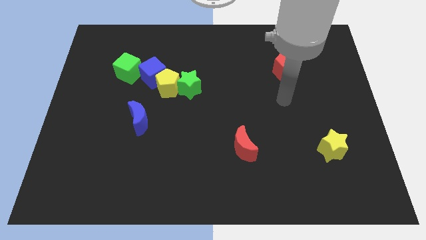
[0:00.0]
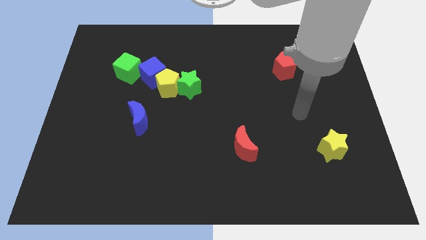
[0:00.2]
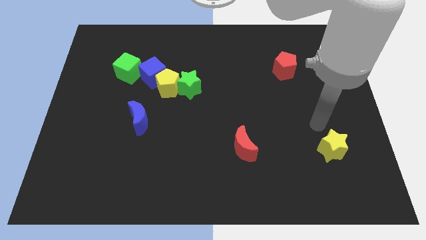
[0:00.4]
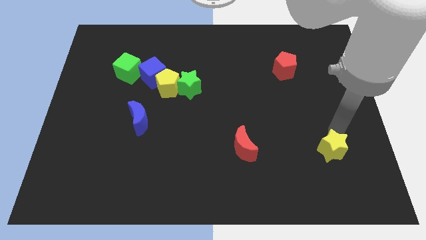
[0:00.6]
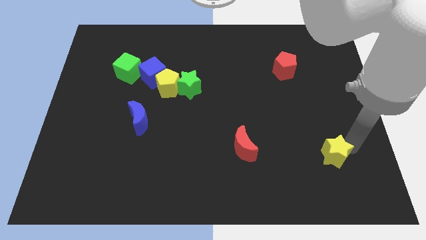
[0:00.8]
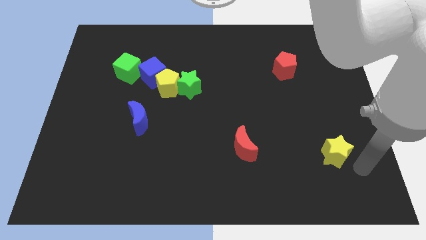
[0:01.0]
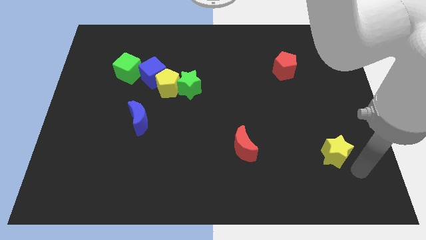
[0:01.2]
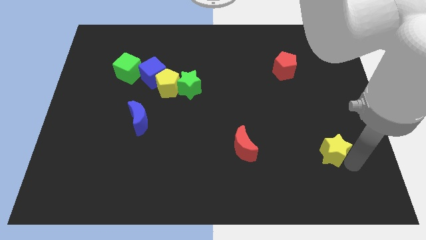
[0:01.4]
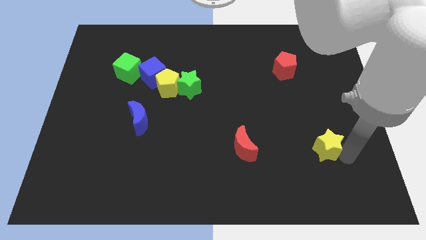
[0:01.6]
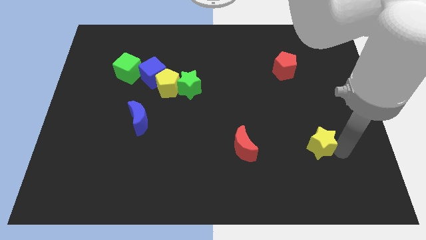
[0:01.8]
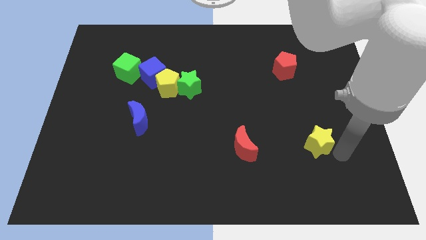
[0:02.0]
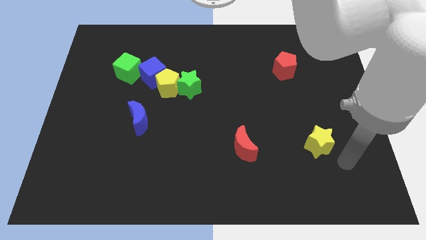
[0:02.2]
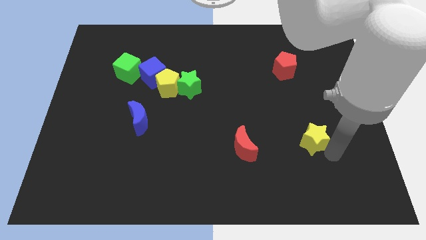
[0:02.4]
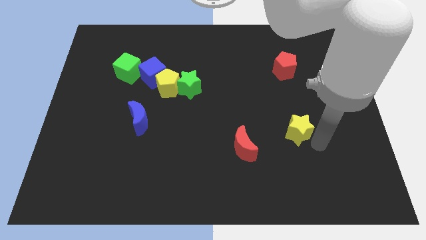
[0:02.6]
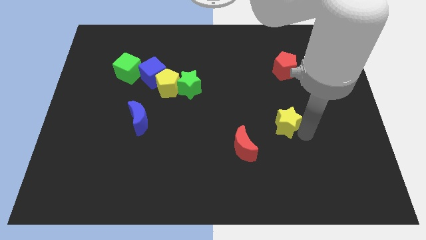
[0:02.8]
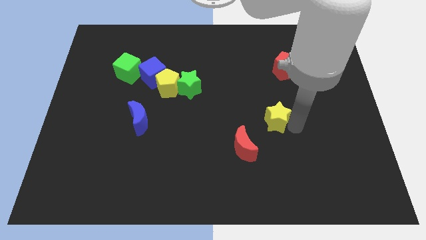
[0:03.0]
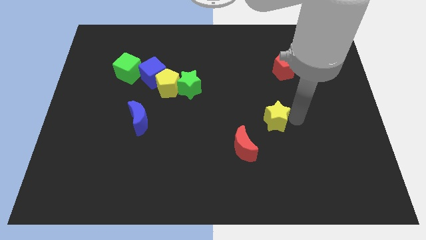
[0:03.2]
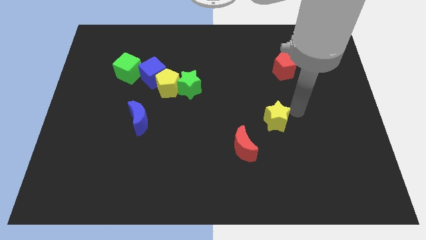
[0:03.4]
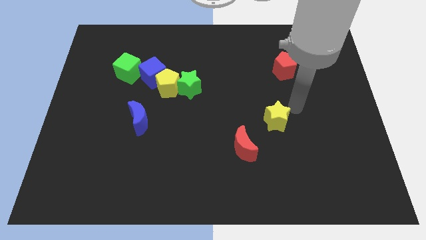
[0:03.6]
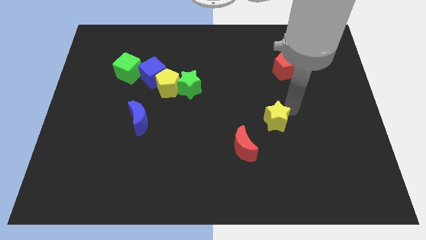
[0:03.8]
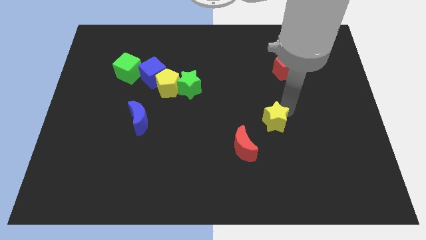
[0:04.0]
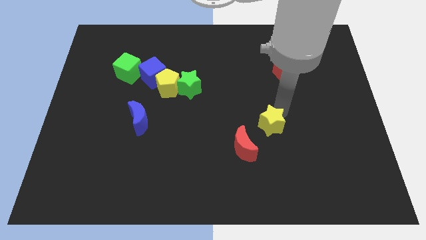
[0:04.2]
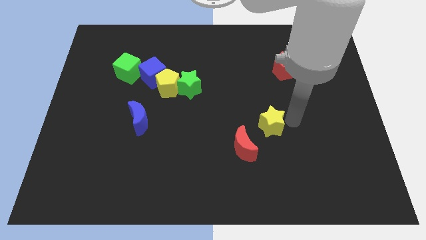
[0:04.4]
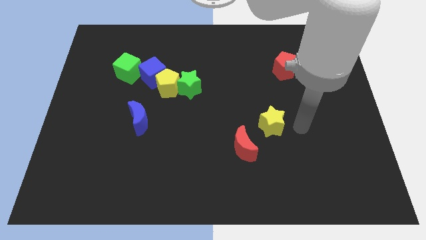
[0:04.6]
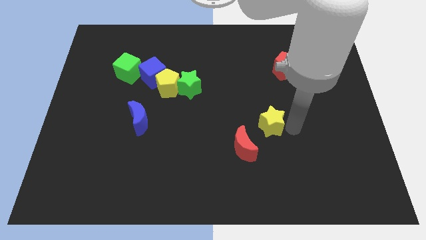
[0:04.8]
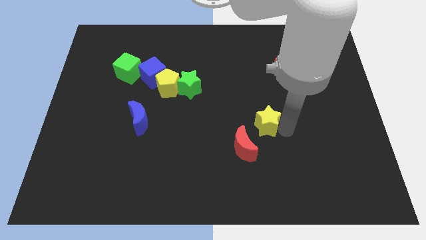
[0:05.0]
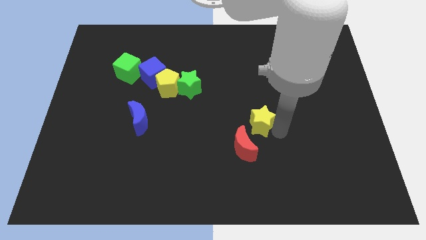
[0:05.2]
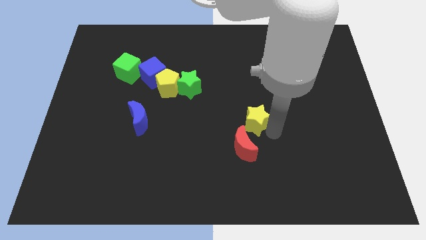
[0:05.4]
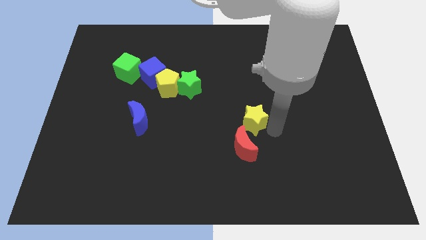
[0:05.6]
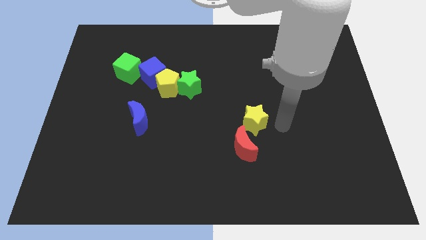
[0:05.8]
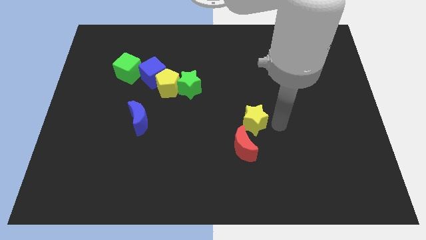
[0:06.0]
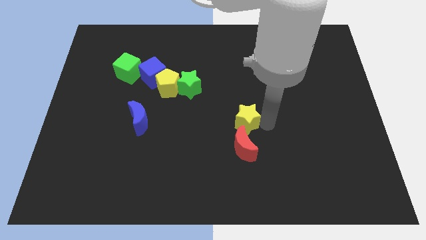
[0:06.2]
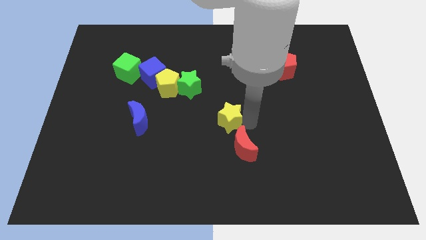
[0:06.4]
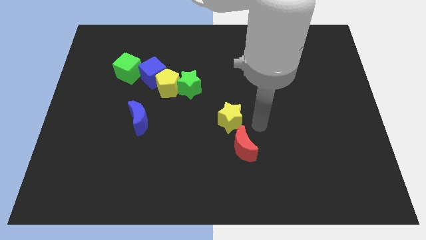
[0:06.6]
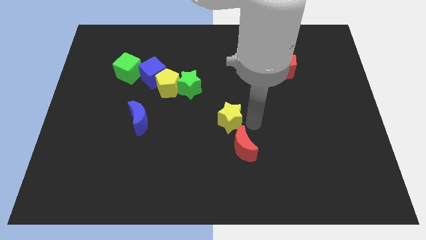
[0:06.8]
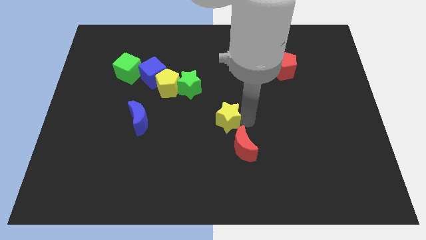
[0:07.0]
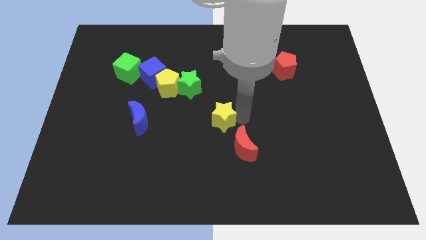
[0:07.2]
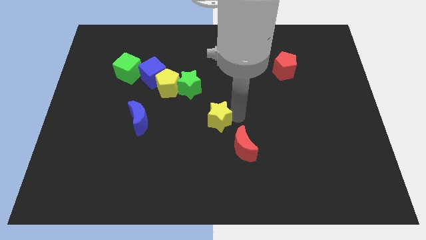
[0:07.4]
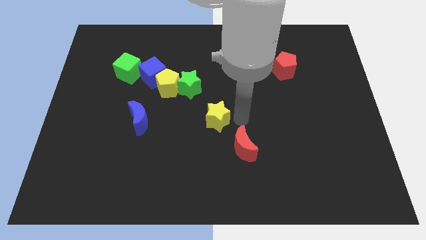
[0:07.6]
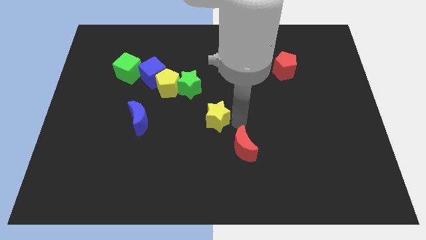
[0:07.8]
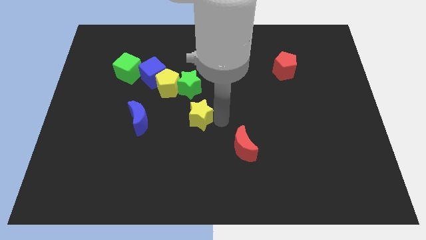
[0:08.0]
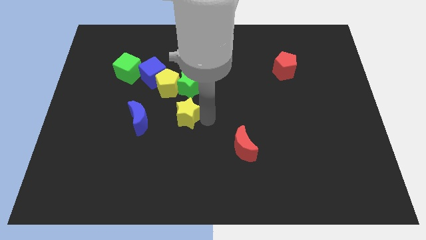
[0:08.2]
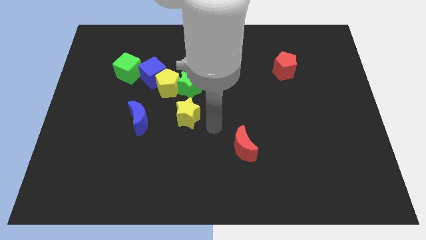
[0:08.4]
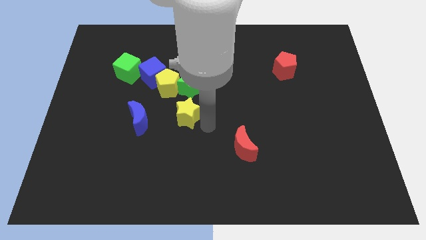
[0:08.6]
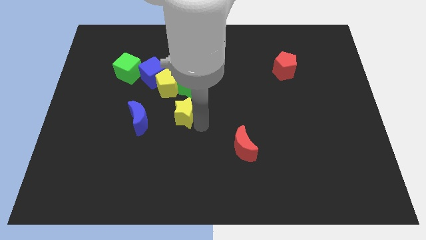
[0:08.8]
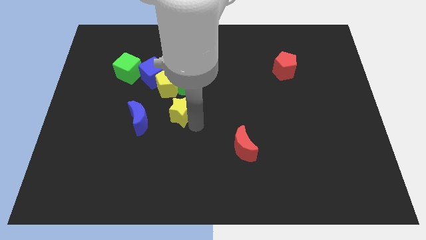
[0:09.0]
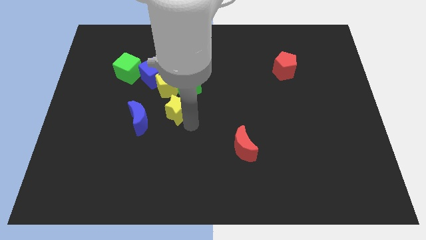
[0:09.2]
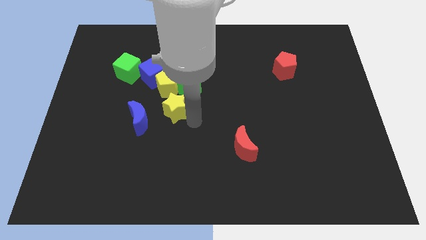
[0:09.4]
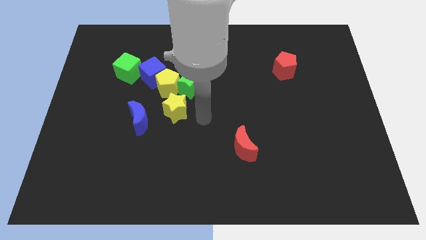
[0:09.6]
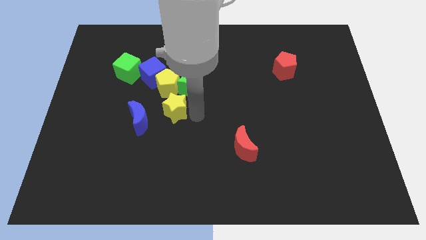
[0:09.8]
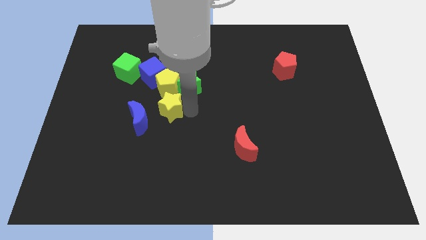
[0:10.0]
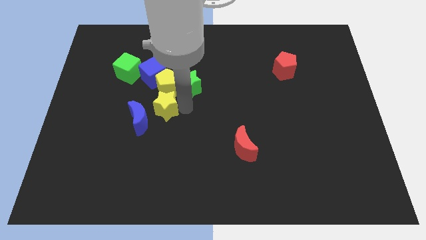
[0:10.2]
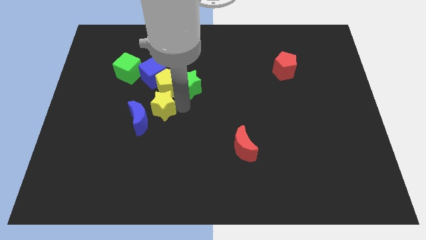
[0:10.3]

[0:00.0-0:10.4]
push the yellow star to the bottom left side of the yellow pentagon

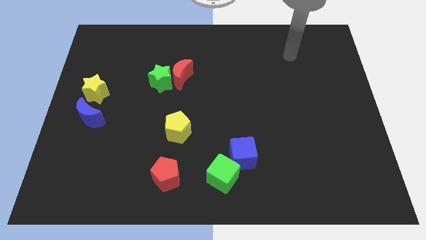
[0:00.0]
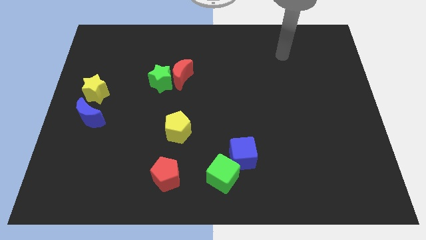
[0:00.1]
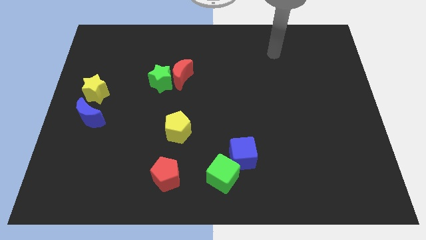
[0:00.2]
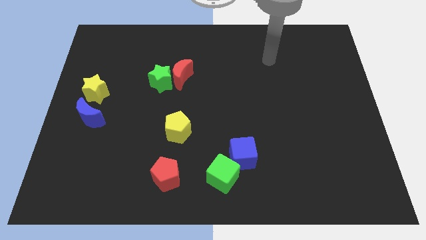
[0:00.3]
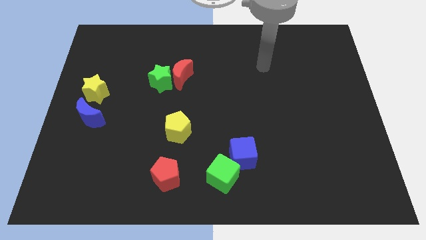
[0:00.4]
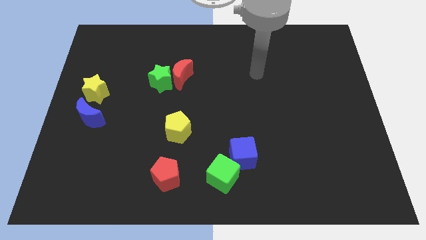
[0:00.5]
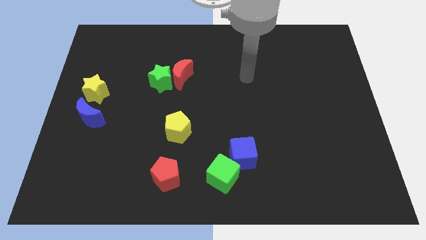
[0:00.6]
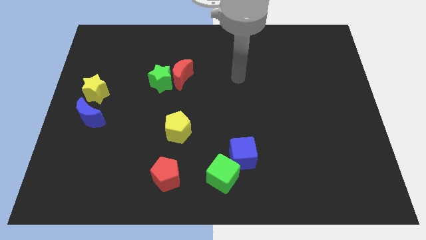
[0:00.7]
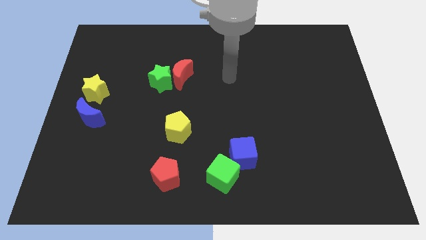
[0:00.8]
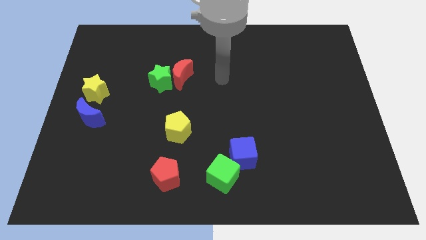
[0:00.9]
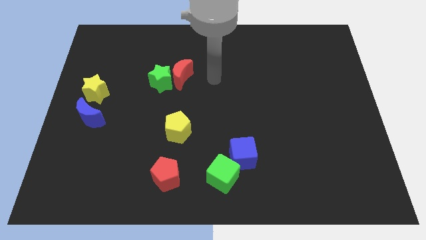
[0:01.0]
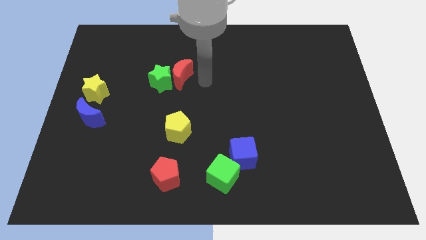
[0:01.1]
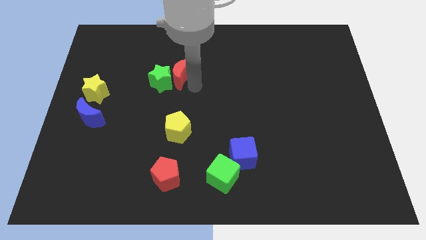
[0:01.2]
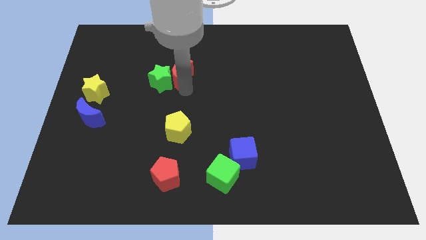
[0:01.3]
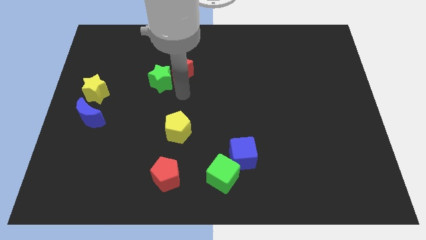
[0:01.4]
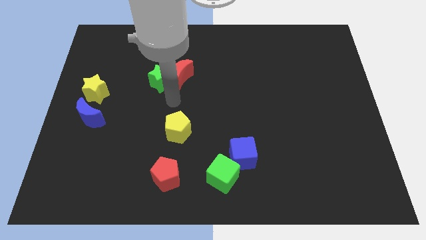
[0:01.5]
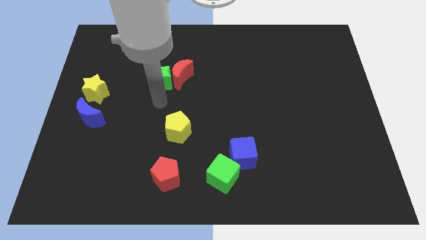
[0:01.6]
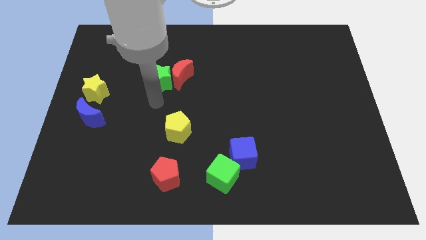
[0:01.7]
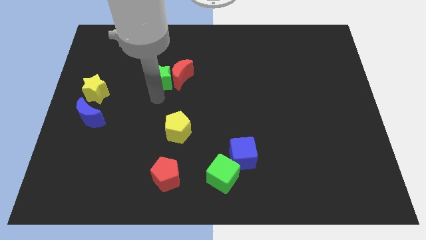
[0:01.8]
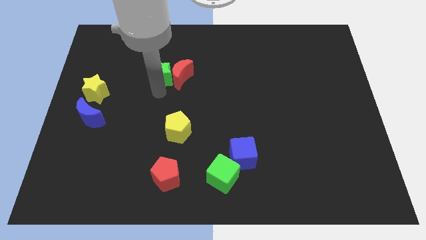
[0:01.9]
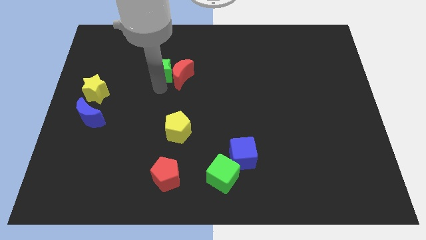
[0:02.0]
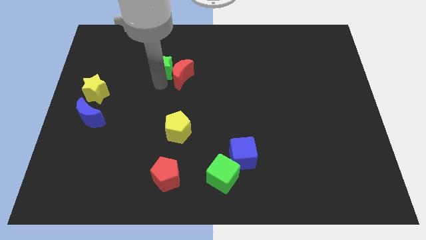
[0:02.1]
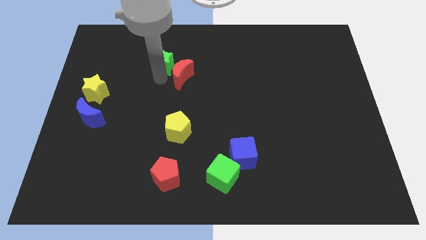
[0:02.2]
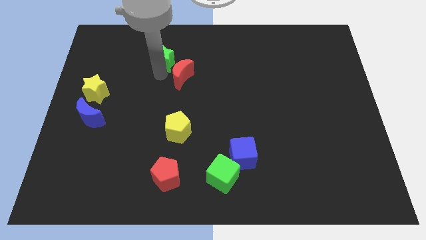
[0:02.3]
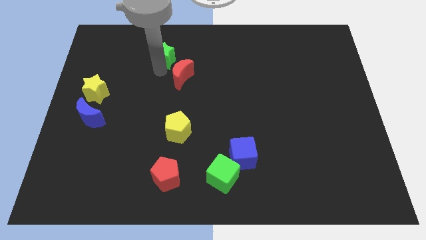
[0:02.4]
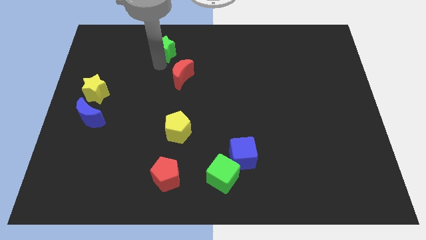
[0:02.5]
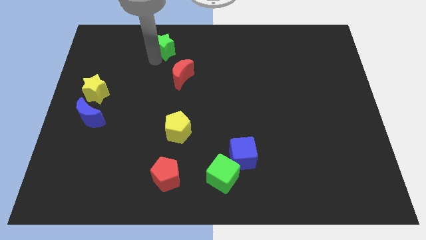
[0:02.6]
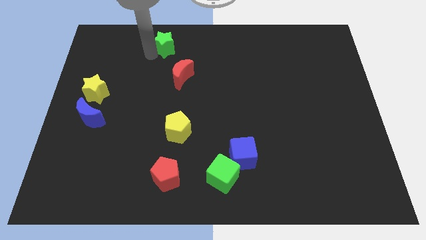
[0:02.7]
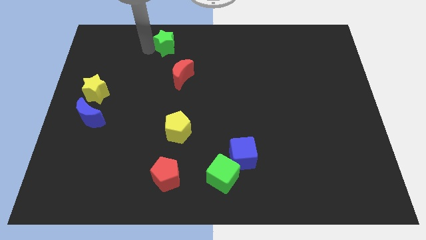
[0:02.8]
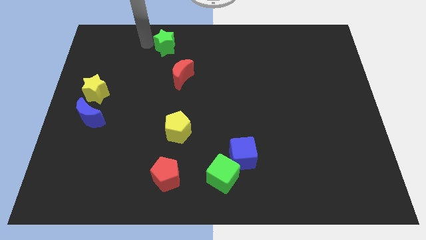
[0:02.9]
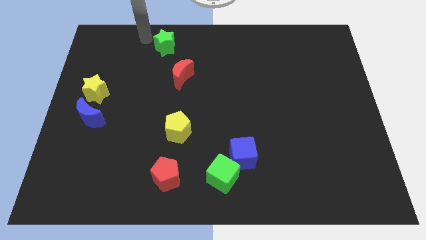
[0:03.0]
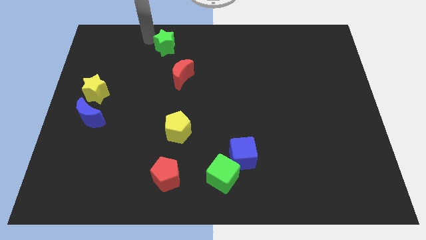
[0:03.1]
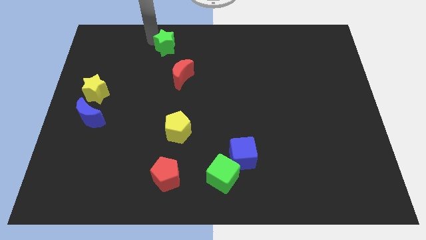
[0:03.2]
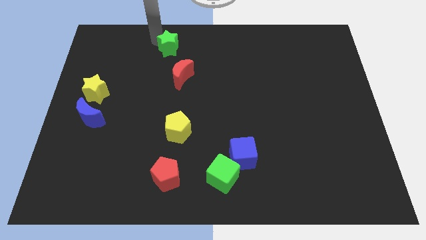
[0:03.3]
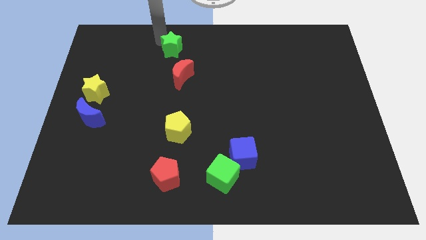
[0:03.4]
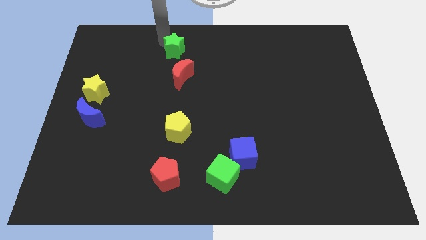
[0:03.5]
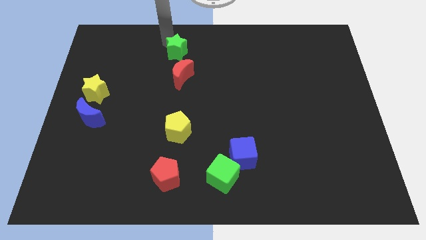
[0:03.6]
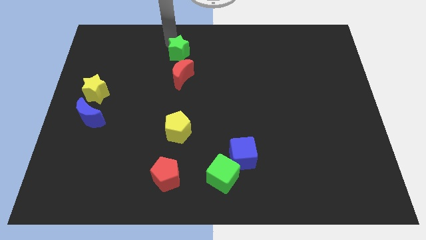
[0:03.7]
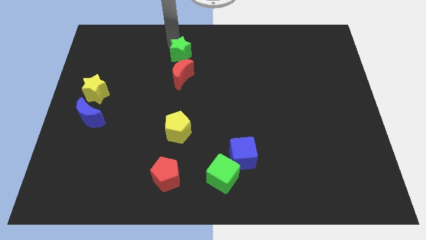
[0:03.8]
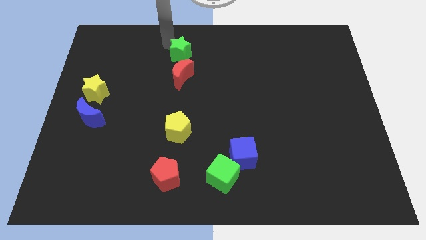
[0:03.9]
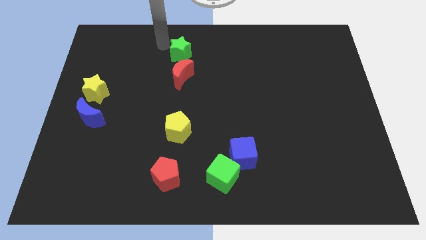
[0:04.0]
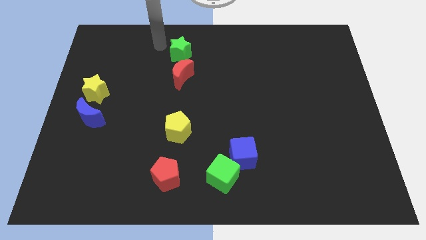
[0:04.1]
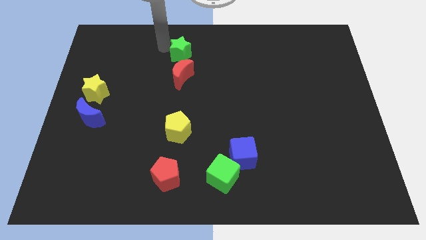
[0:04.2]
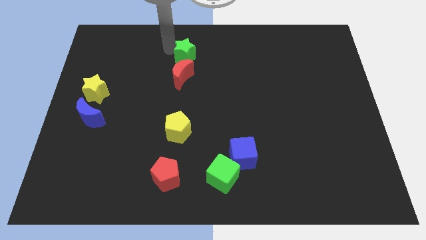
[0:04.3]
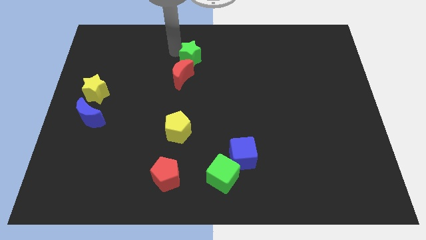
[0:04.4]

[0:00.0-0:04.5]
push the green star to the top right side of the red moon
